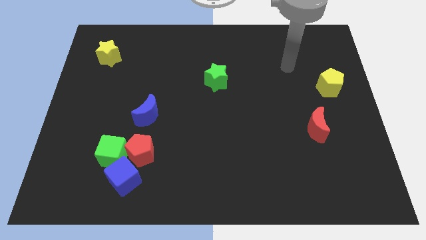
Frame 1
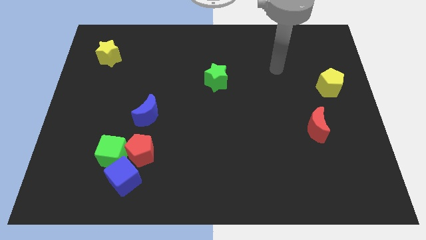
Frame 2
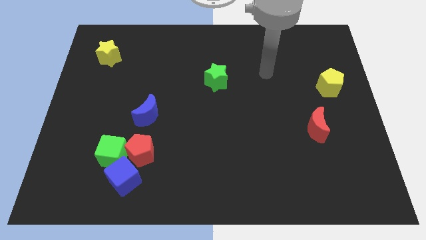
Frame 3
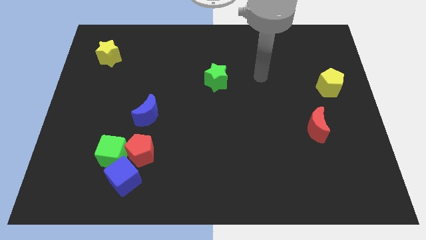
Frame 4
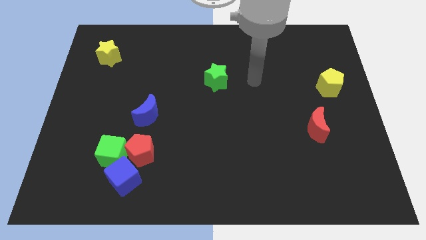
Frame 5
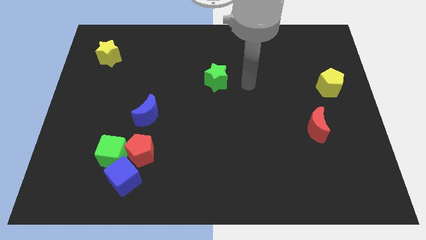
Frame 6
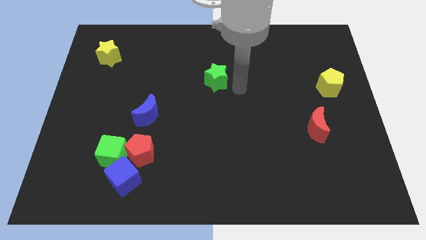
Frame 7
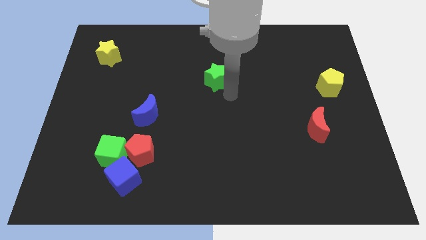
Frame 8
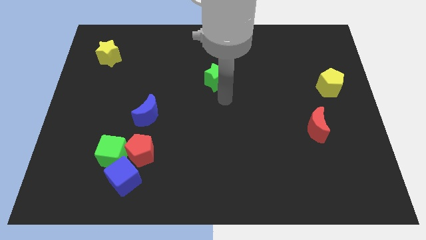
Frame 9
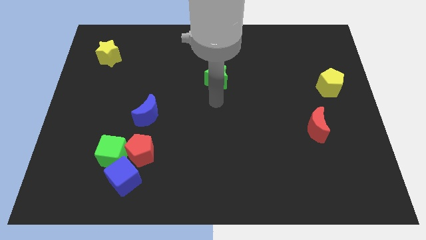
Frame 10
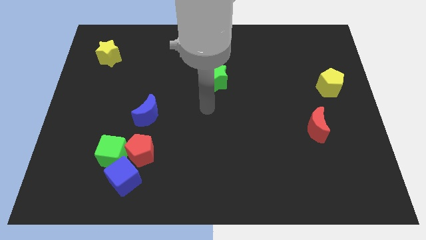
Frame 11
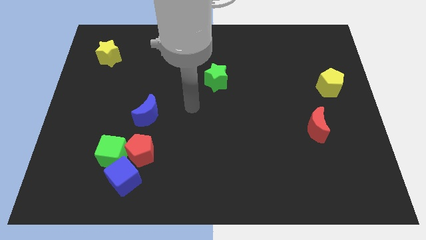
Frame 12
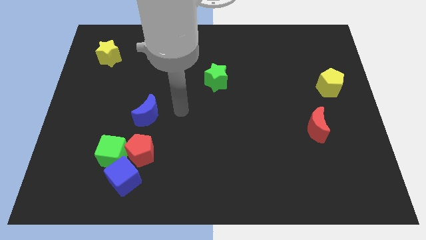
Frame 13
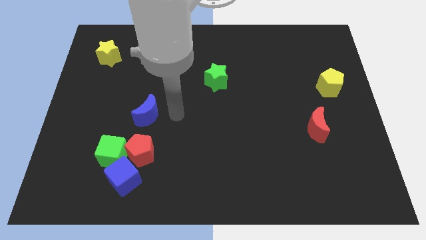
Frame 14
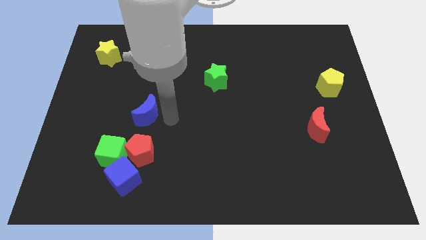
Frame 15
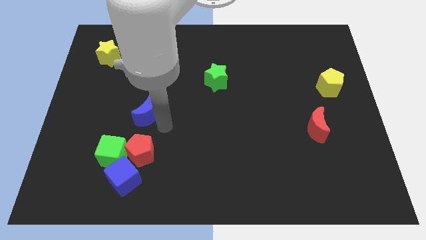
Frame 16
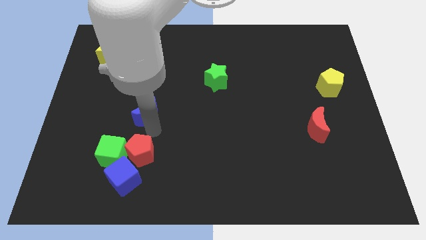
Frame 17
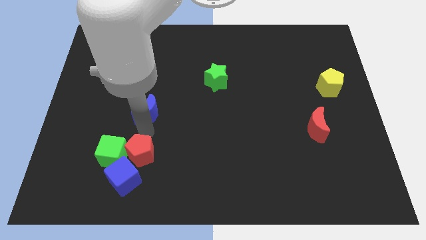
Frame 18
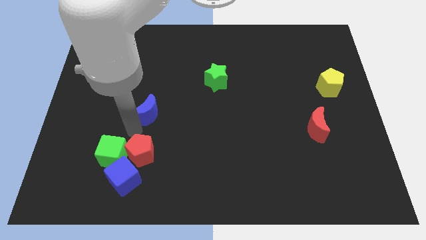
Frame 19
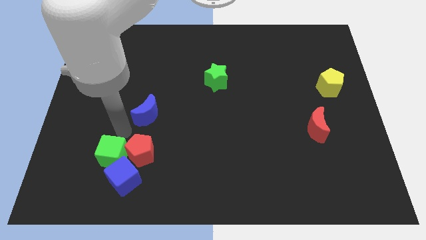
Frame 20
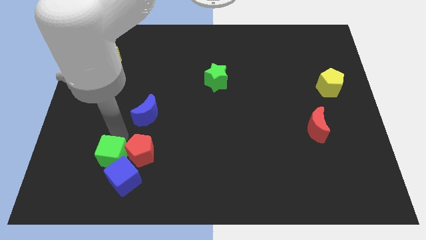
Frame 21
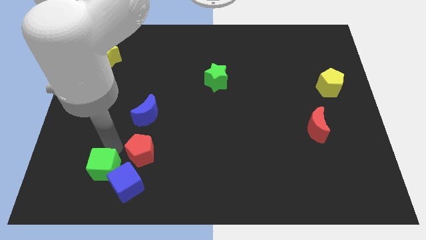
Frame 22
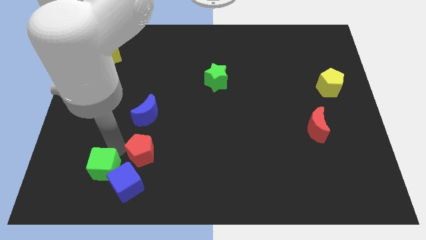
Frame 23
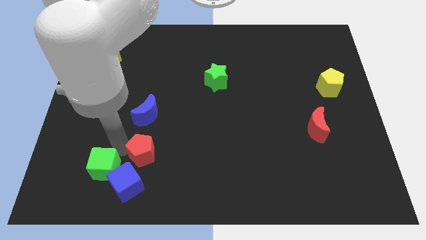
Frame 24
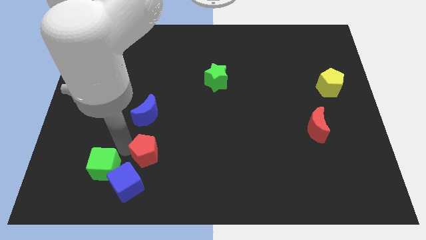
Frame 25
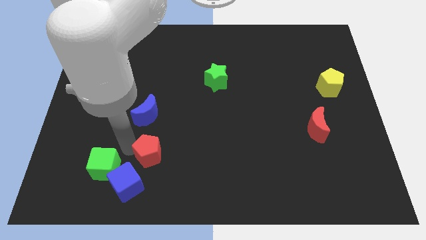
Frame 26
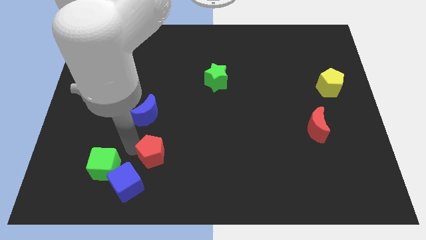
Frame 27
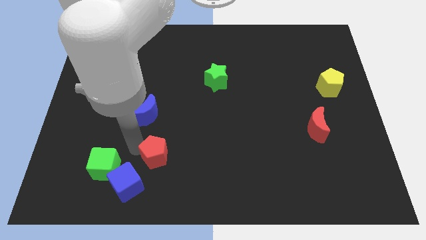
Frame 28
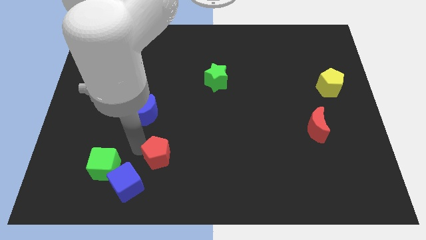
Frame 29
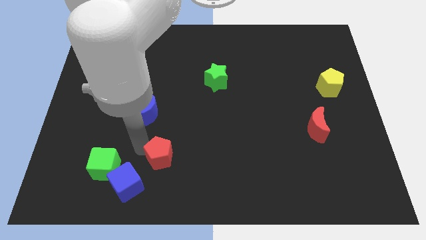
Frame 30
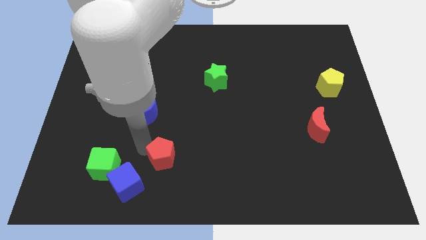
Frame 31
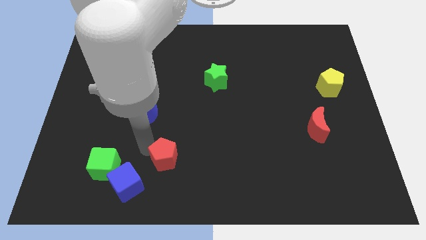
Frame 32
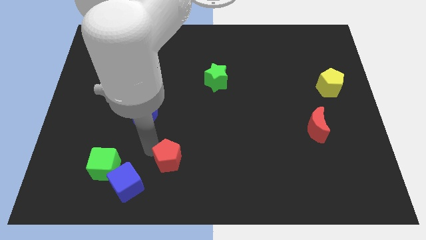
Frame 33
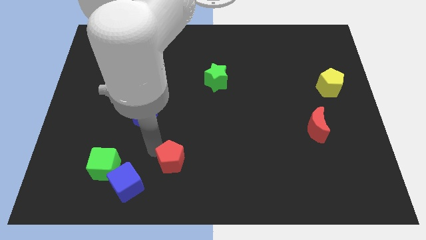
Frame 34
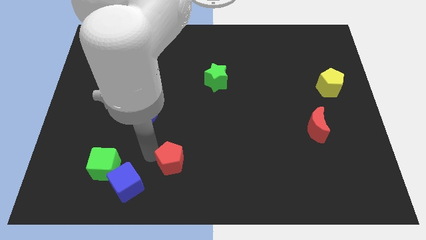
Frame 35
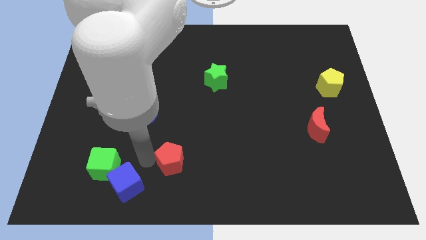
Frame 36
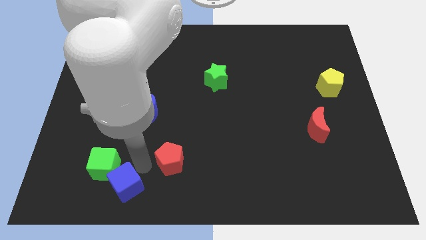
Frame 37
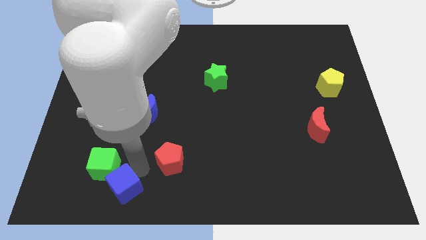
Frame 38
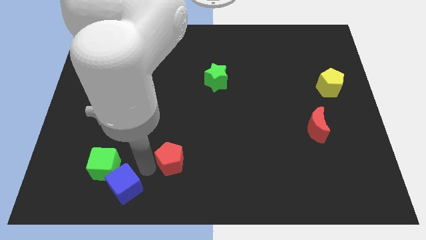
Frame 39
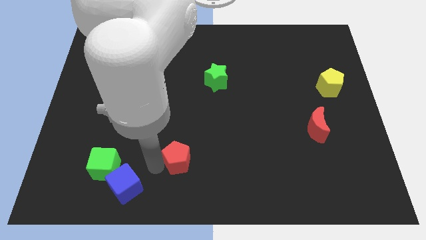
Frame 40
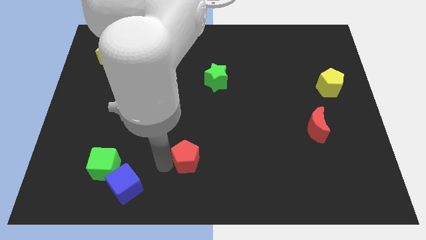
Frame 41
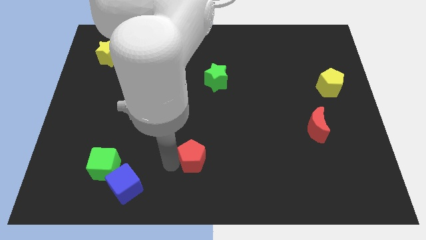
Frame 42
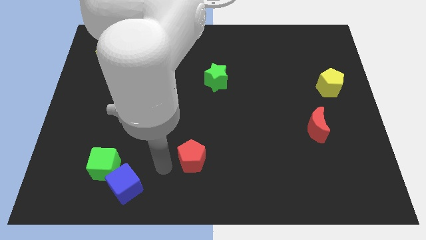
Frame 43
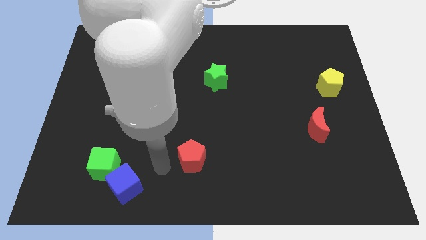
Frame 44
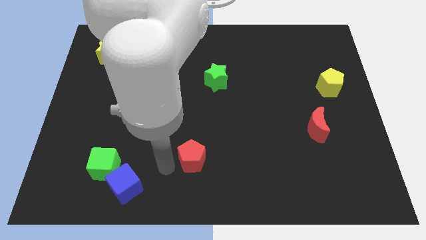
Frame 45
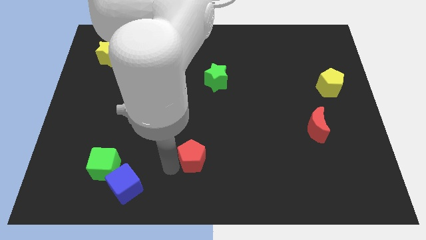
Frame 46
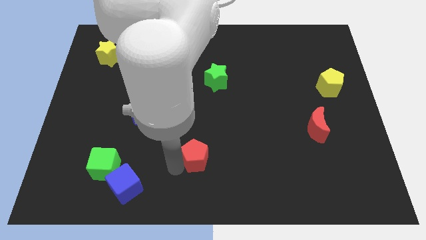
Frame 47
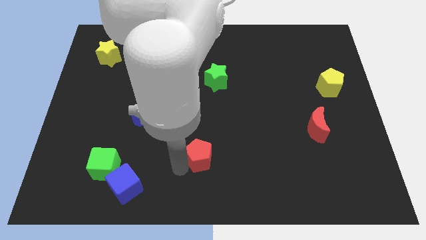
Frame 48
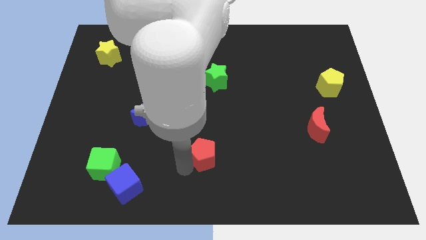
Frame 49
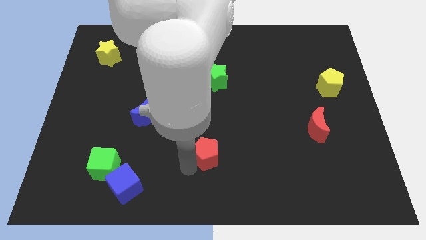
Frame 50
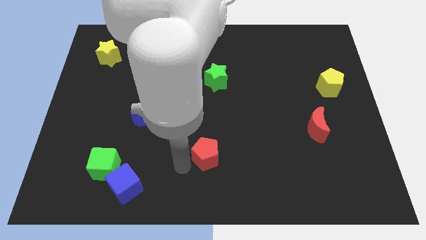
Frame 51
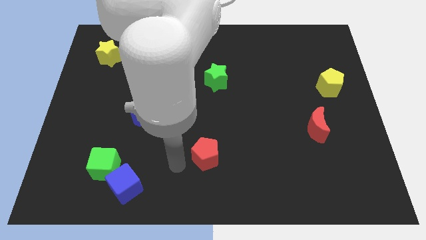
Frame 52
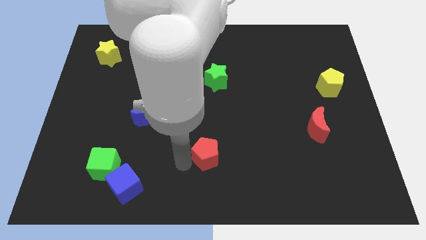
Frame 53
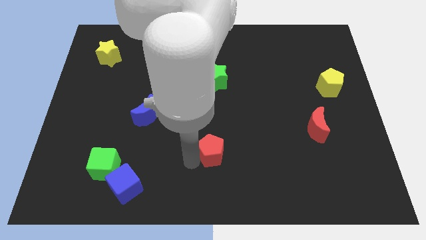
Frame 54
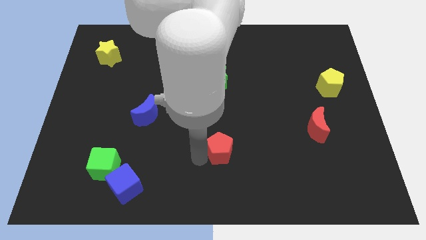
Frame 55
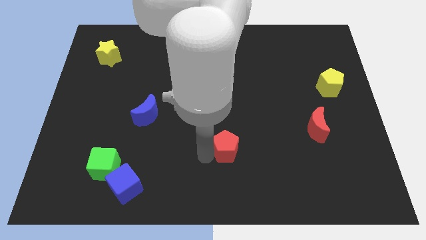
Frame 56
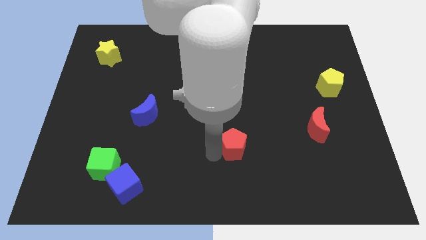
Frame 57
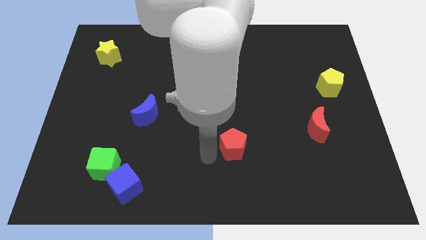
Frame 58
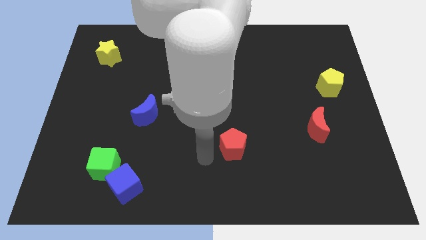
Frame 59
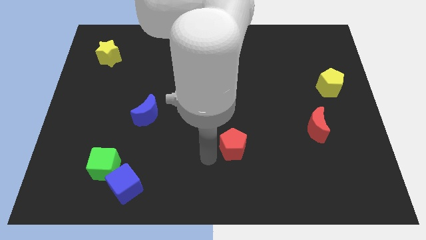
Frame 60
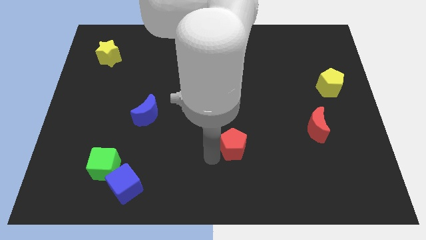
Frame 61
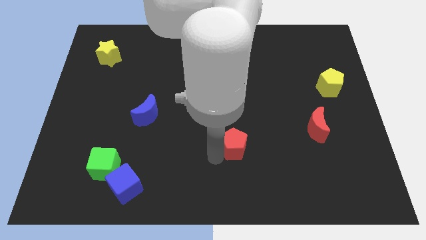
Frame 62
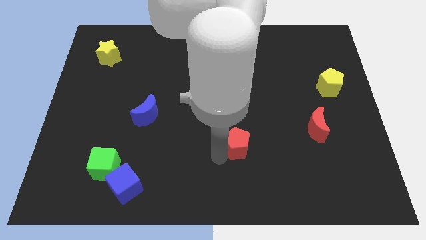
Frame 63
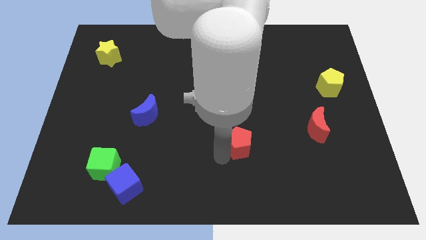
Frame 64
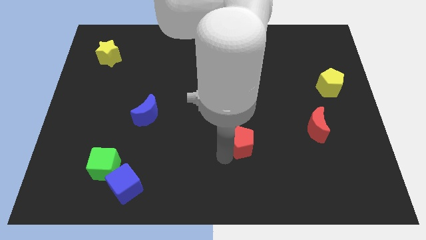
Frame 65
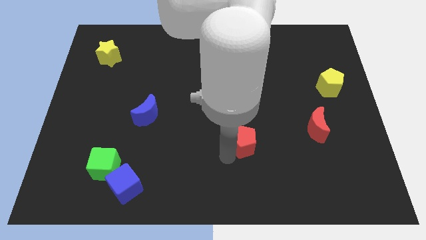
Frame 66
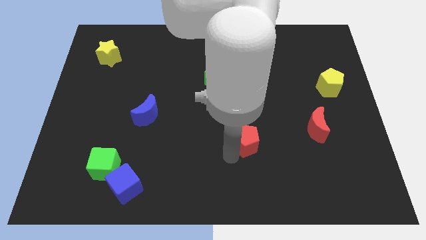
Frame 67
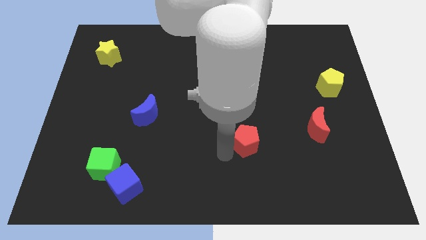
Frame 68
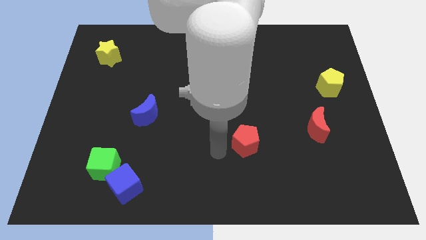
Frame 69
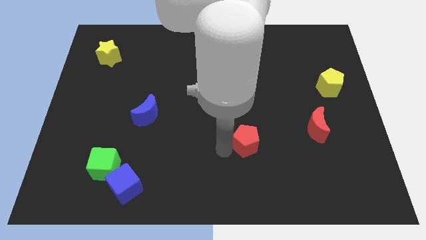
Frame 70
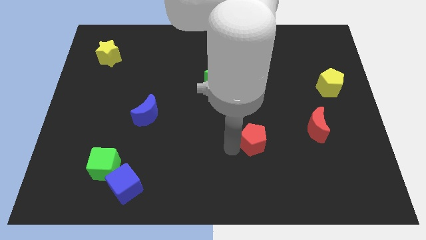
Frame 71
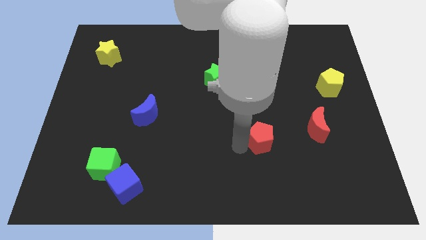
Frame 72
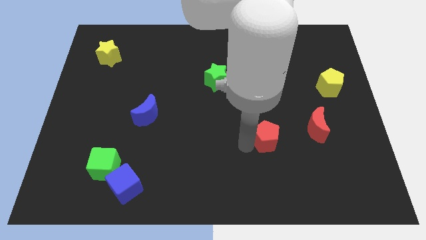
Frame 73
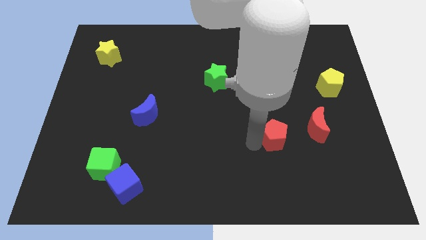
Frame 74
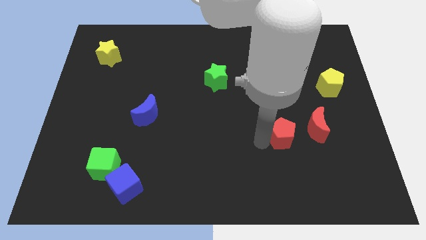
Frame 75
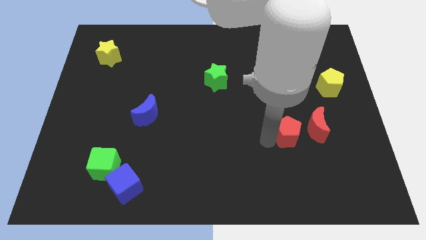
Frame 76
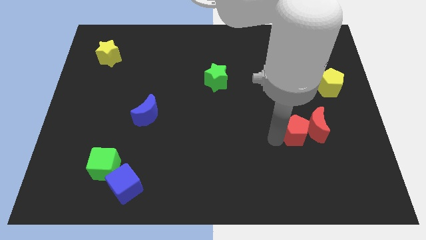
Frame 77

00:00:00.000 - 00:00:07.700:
put the red pentagon to the red moon
